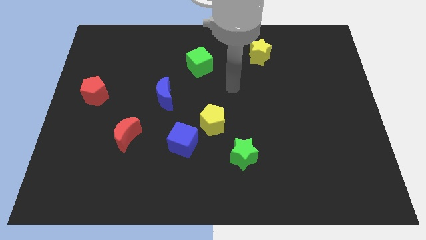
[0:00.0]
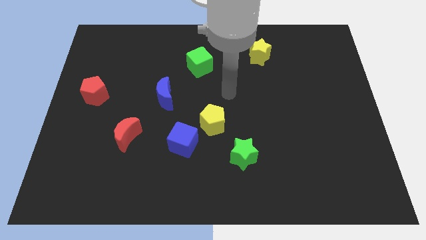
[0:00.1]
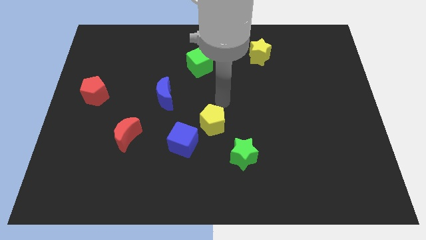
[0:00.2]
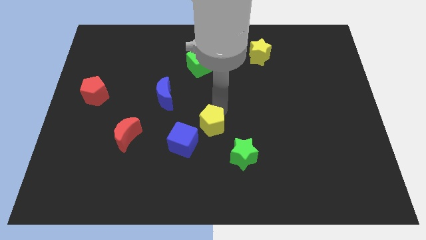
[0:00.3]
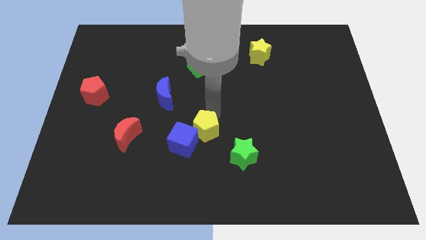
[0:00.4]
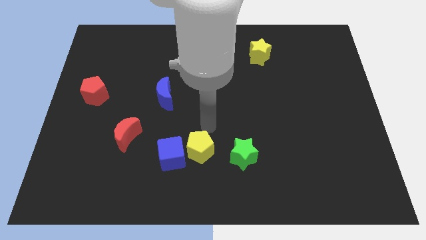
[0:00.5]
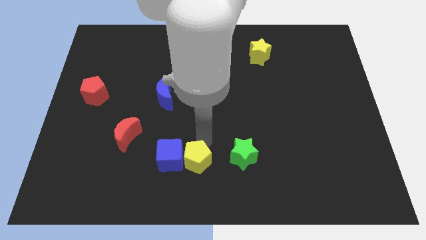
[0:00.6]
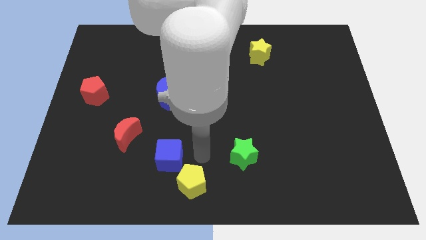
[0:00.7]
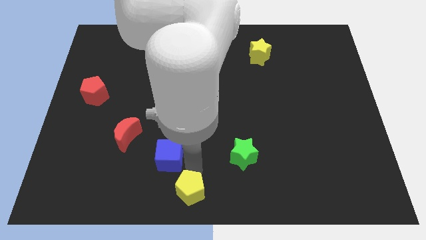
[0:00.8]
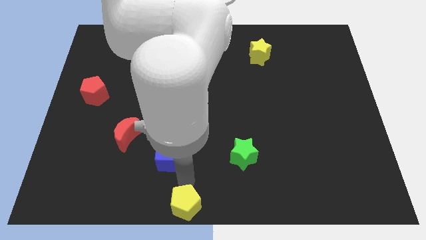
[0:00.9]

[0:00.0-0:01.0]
separate the blue cube from the yellow pentagon

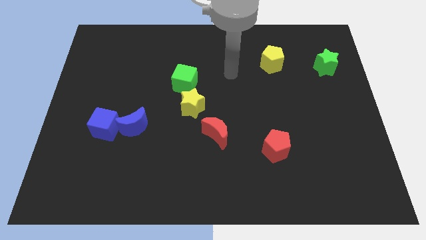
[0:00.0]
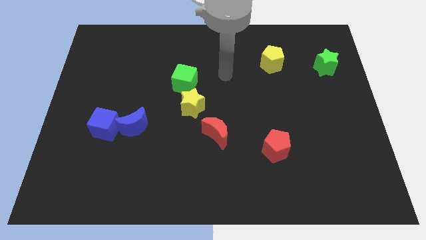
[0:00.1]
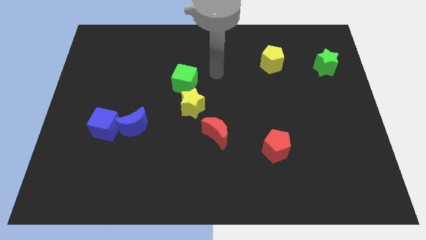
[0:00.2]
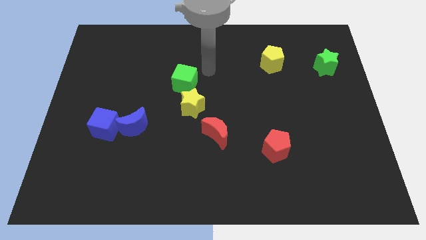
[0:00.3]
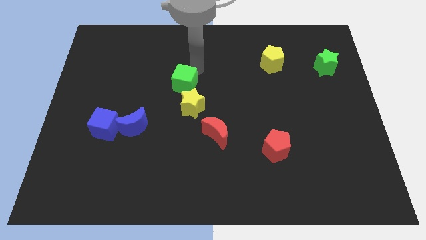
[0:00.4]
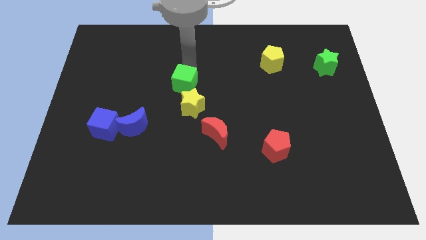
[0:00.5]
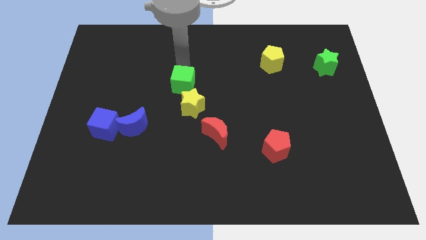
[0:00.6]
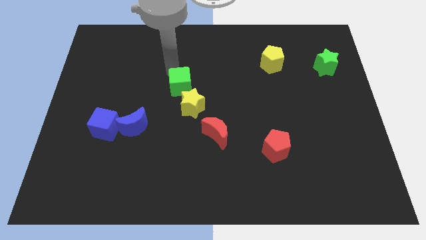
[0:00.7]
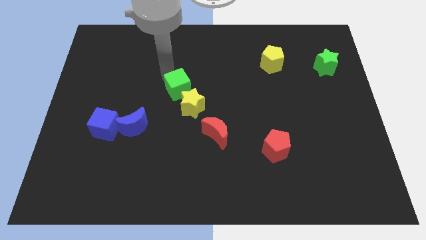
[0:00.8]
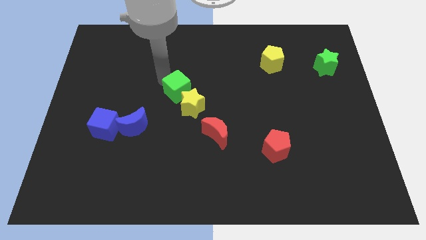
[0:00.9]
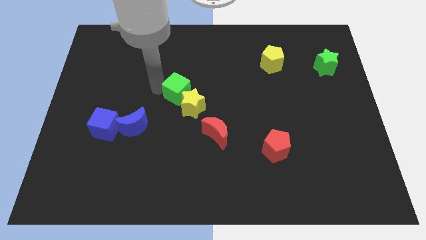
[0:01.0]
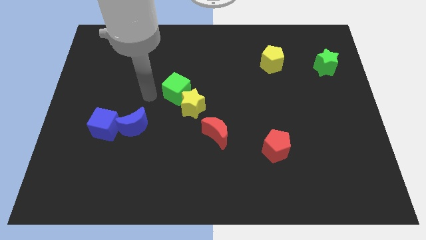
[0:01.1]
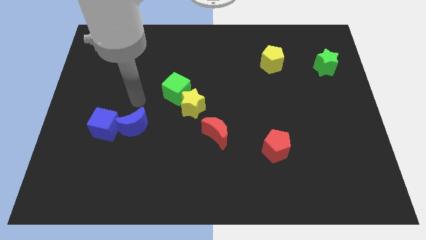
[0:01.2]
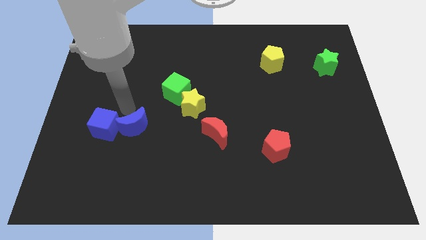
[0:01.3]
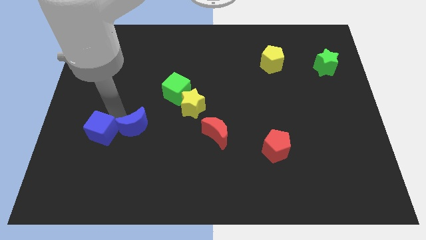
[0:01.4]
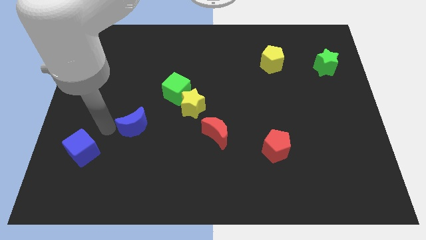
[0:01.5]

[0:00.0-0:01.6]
separate the blue moon from the blue cube

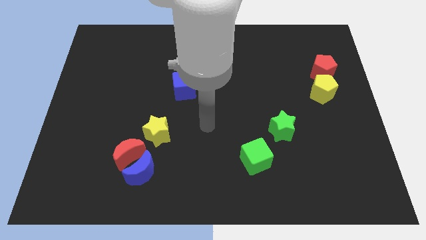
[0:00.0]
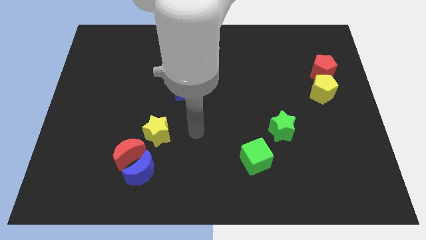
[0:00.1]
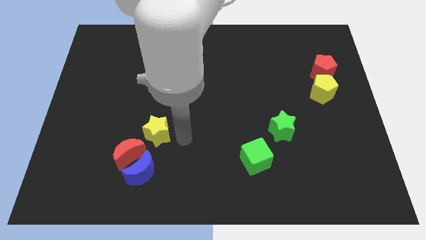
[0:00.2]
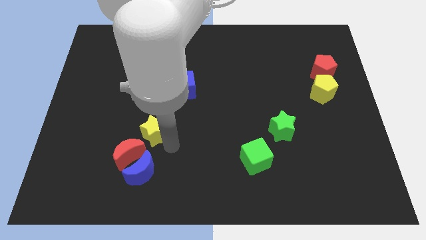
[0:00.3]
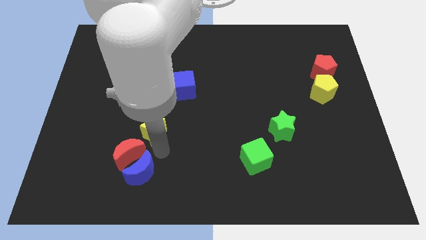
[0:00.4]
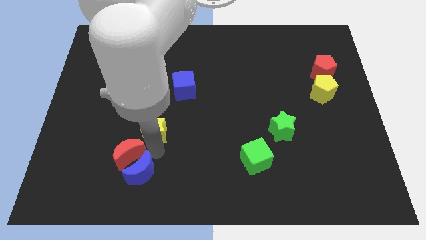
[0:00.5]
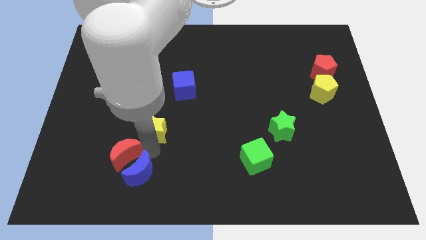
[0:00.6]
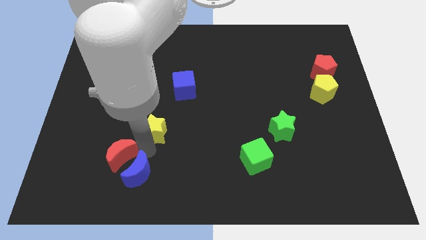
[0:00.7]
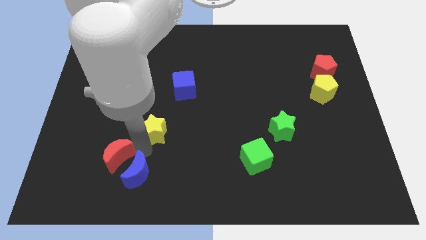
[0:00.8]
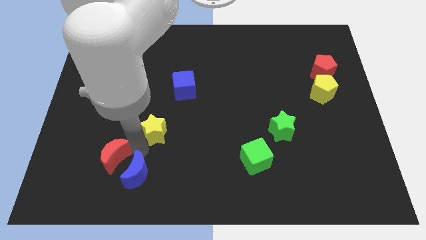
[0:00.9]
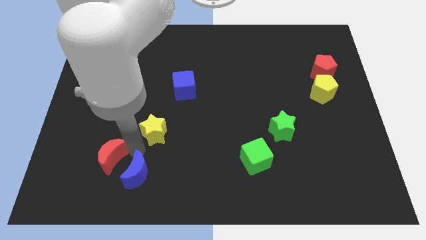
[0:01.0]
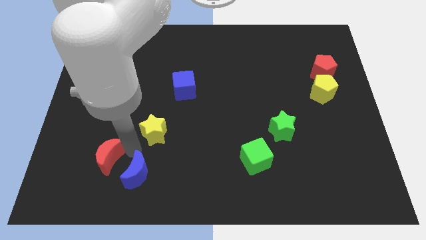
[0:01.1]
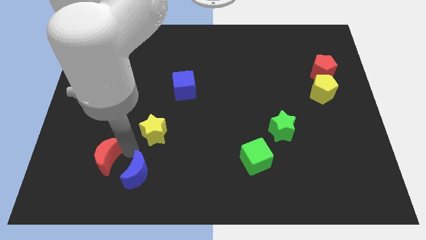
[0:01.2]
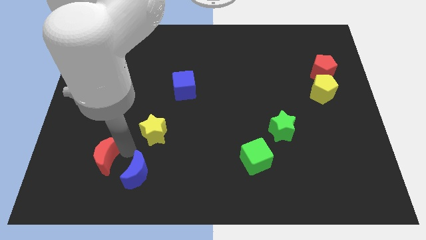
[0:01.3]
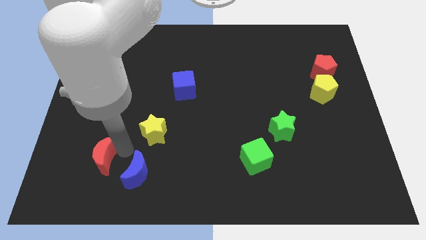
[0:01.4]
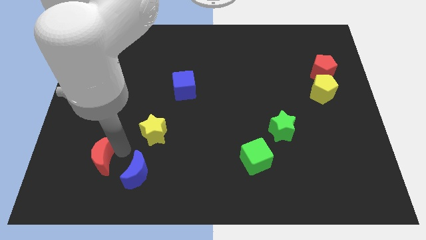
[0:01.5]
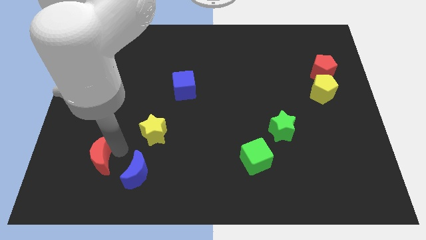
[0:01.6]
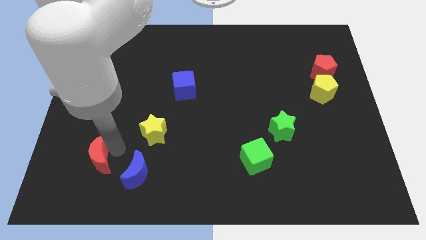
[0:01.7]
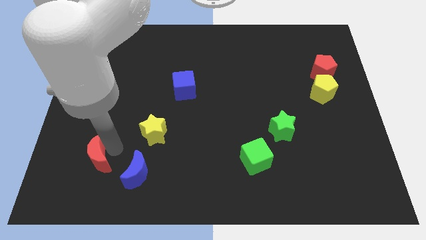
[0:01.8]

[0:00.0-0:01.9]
separate the red moon from the blue moon and yellow star

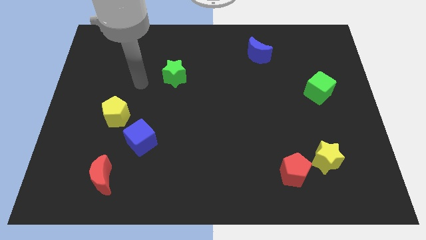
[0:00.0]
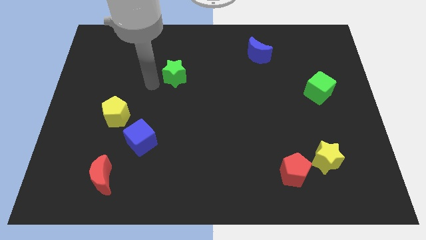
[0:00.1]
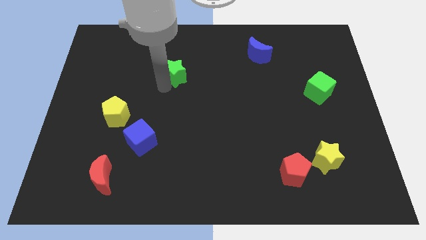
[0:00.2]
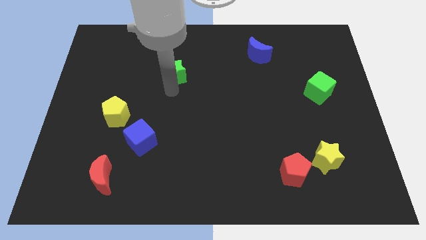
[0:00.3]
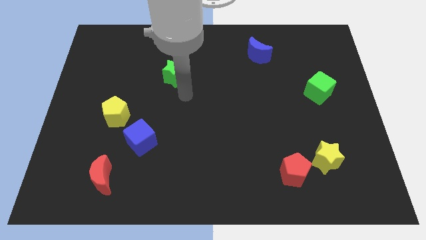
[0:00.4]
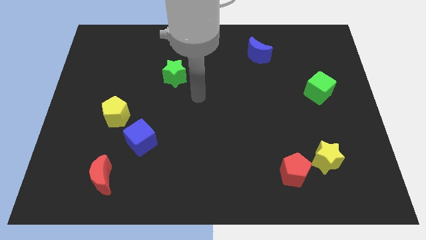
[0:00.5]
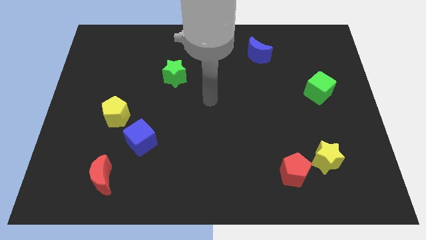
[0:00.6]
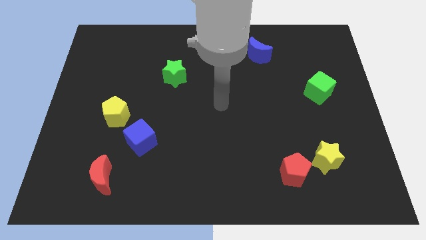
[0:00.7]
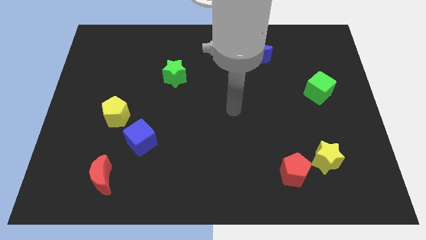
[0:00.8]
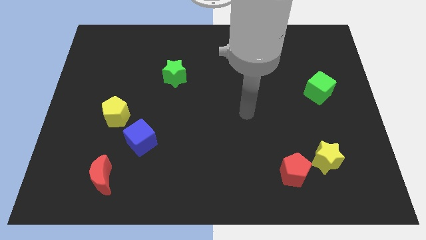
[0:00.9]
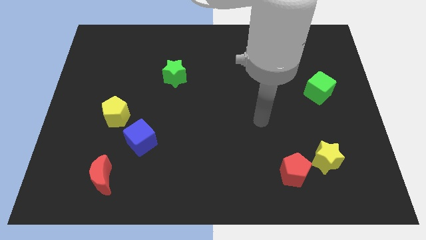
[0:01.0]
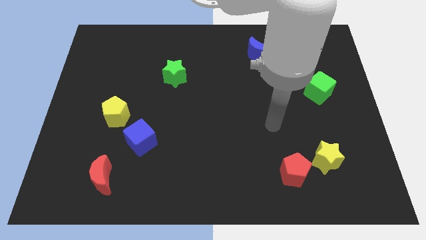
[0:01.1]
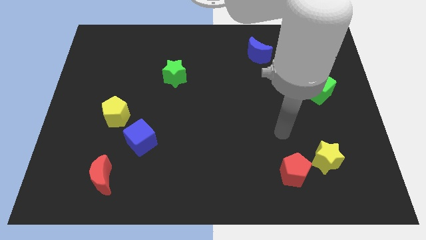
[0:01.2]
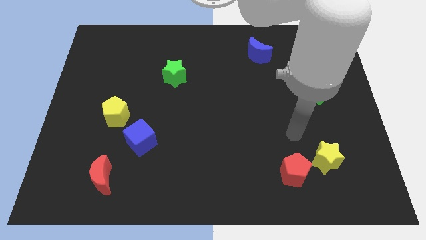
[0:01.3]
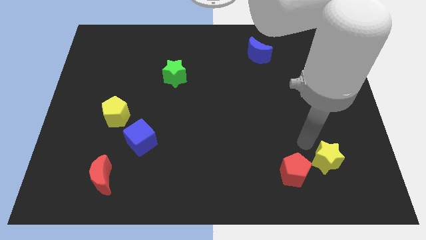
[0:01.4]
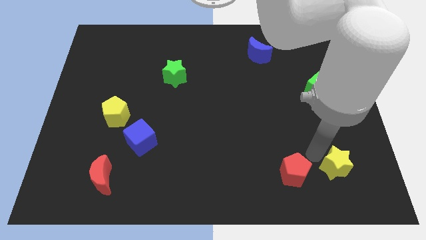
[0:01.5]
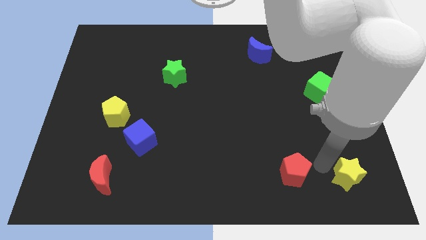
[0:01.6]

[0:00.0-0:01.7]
move the red pentagon away from the yellow star

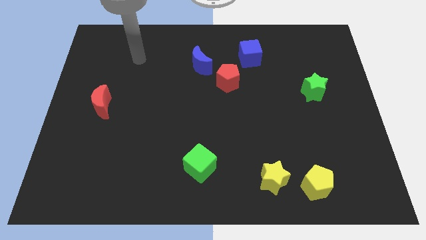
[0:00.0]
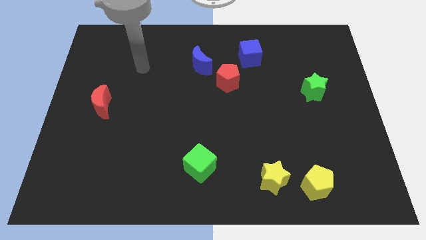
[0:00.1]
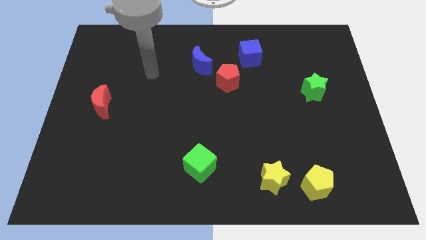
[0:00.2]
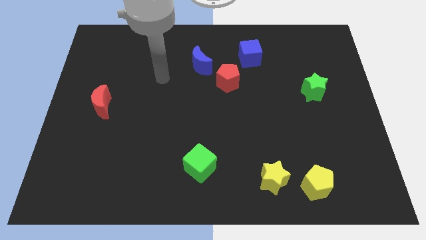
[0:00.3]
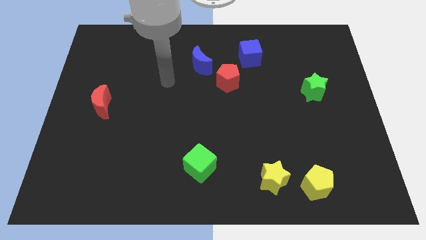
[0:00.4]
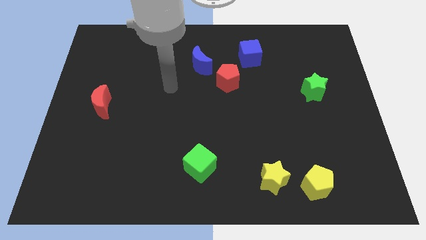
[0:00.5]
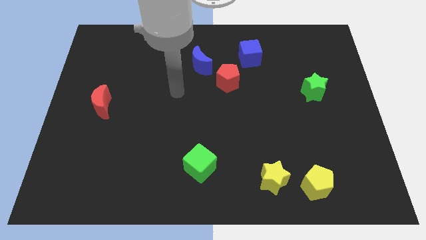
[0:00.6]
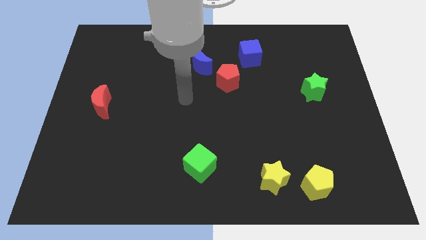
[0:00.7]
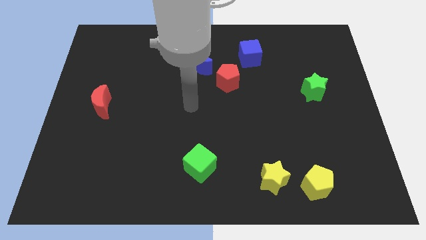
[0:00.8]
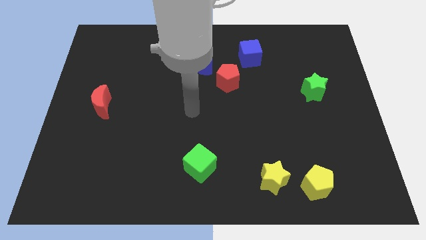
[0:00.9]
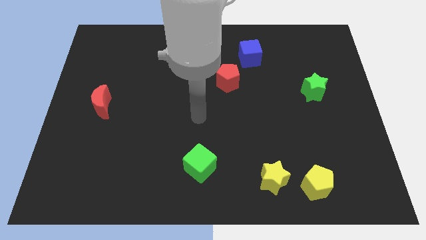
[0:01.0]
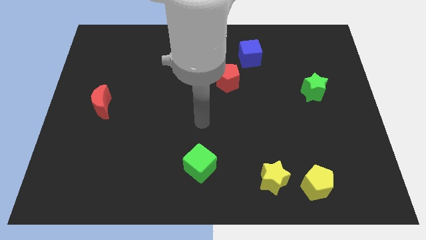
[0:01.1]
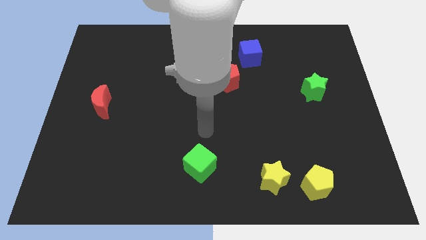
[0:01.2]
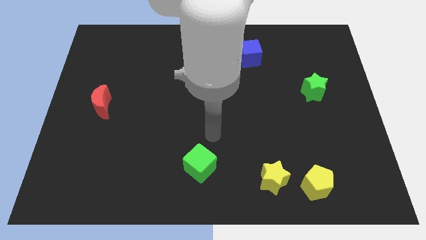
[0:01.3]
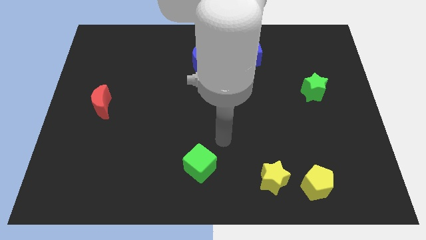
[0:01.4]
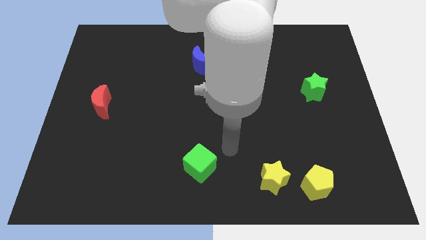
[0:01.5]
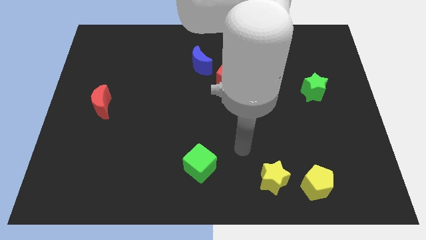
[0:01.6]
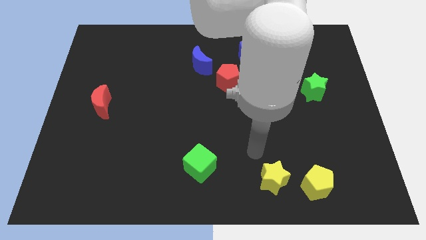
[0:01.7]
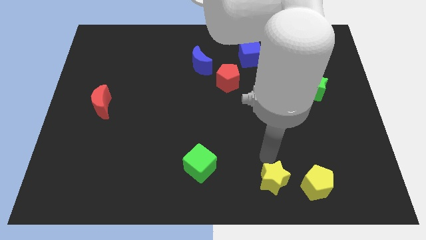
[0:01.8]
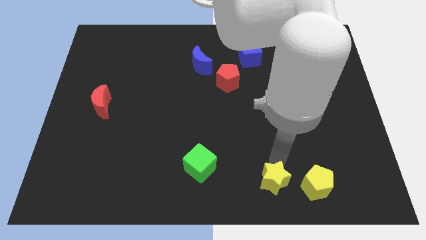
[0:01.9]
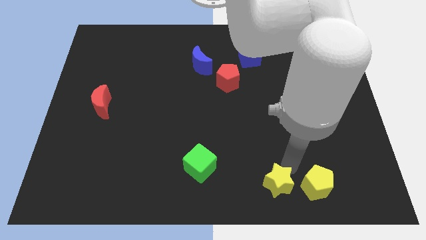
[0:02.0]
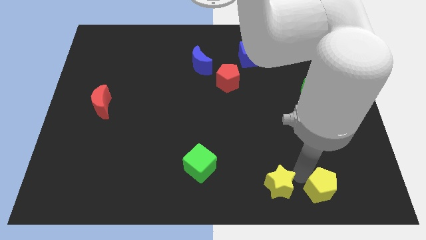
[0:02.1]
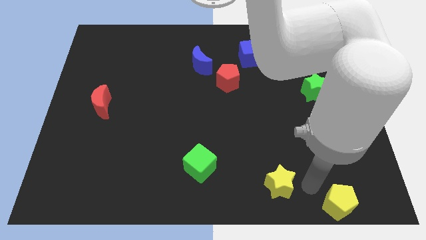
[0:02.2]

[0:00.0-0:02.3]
move the yellow star away from the yellow pentagon

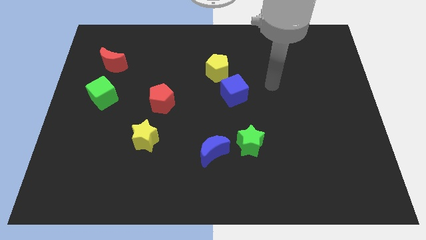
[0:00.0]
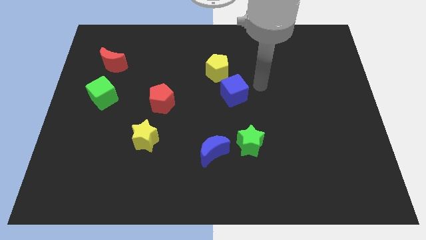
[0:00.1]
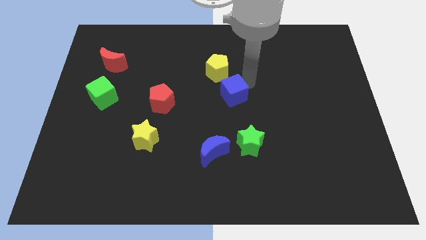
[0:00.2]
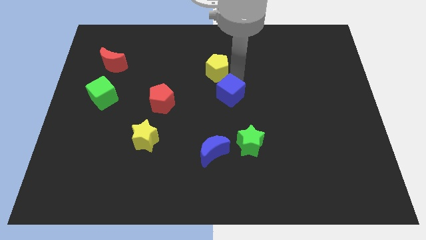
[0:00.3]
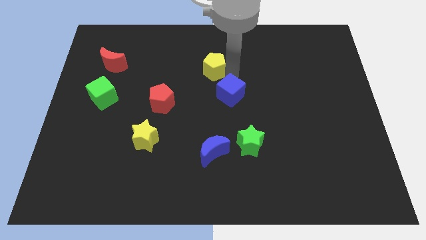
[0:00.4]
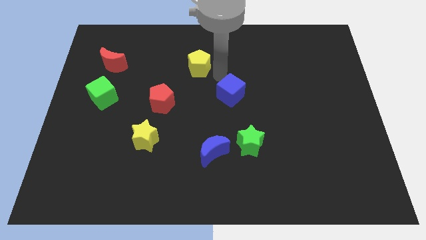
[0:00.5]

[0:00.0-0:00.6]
move the blue cube away from the yellow pentagon

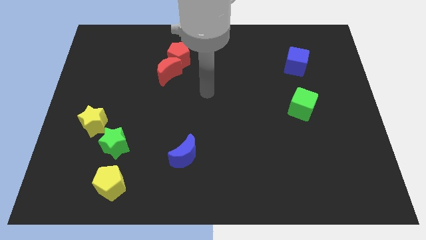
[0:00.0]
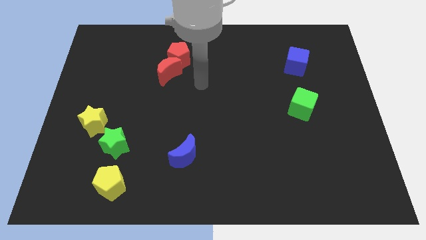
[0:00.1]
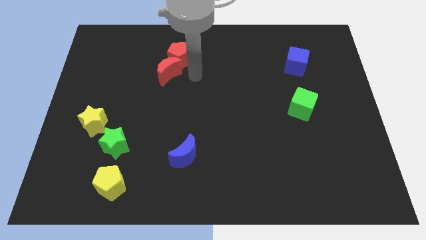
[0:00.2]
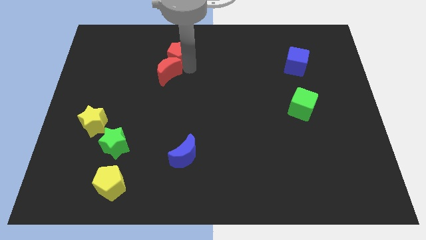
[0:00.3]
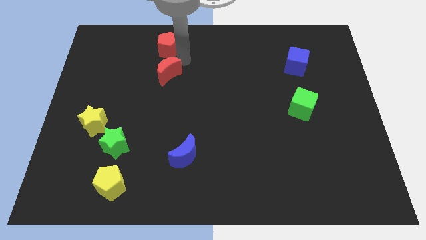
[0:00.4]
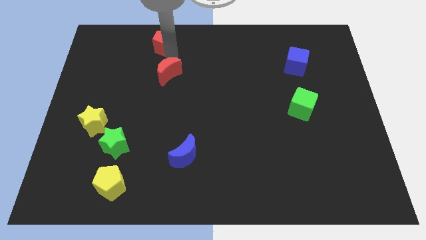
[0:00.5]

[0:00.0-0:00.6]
move the red moon away from the red pentagon
